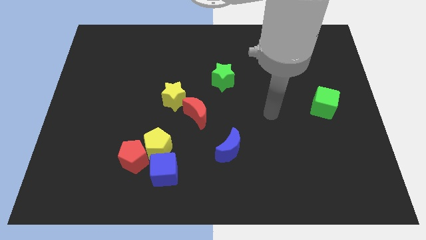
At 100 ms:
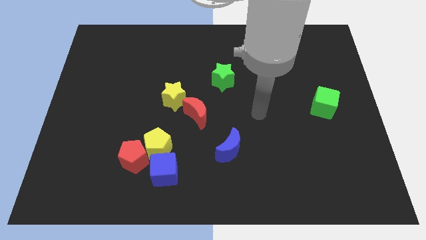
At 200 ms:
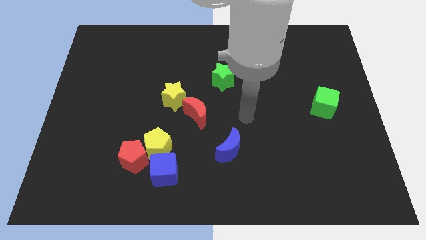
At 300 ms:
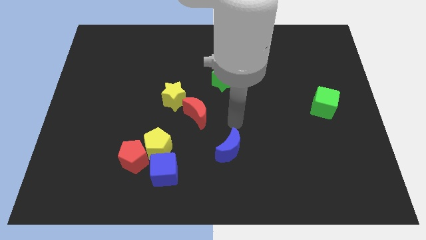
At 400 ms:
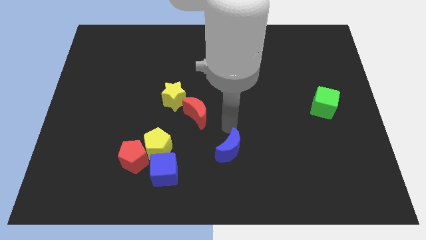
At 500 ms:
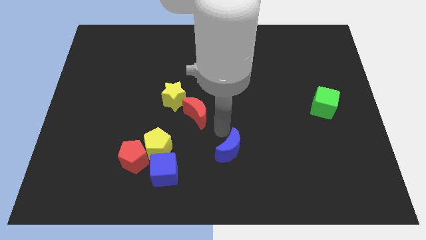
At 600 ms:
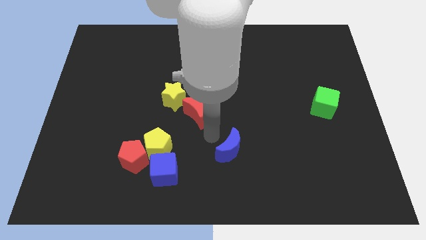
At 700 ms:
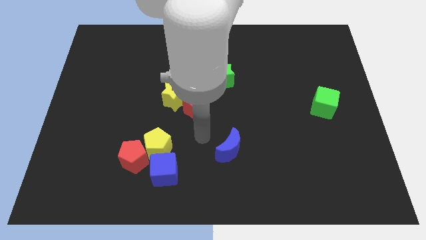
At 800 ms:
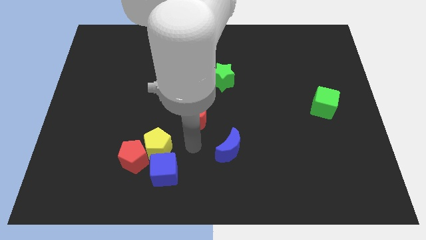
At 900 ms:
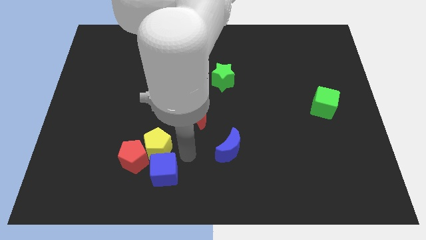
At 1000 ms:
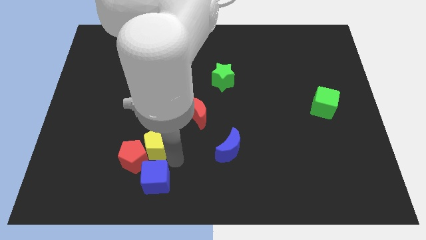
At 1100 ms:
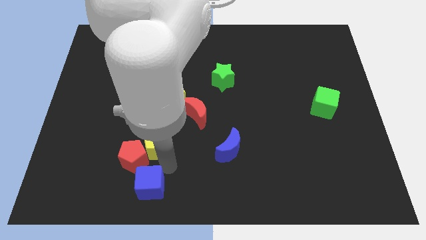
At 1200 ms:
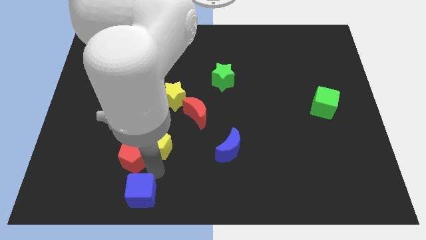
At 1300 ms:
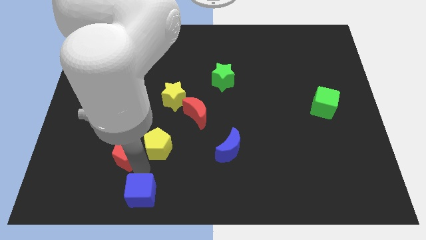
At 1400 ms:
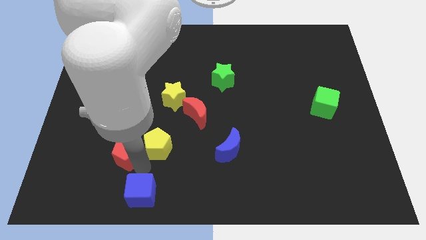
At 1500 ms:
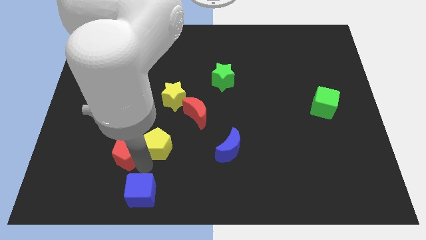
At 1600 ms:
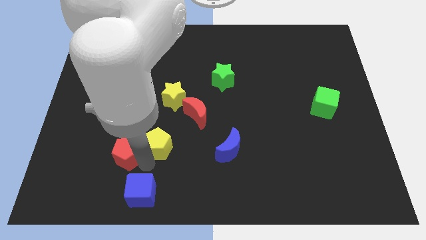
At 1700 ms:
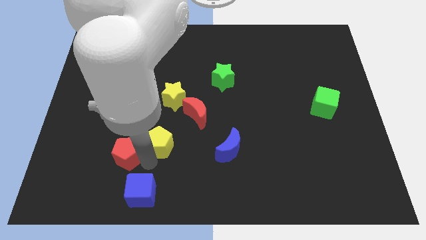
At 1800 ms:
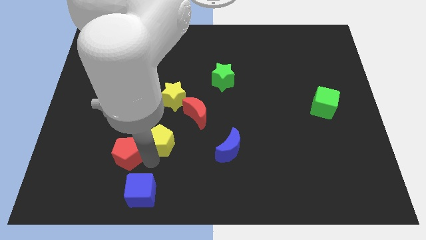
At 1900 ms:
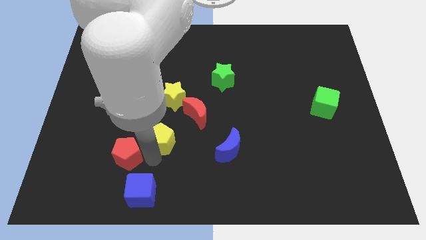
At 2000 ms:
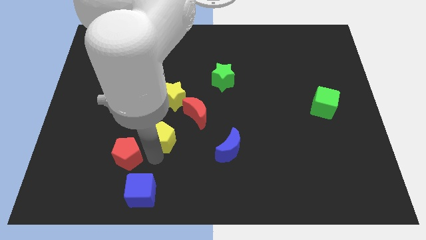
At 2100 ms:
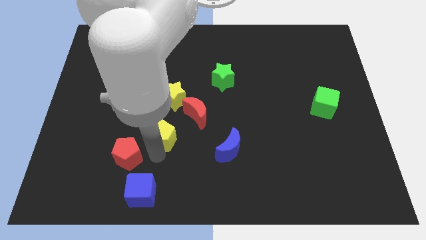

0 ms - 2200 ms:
separate the yellow pentagon from the red pentagon and blue cube

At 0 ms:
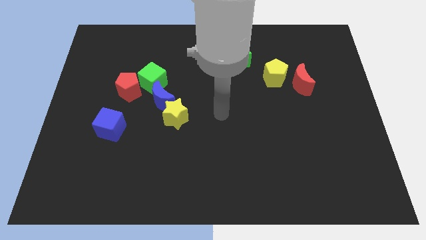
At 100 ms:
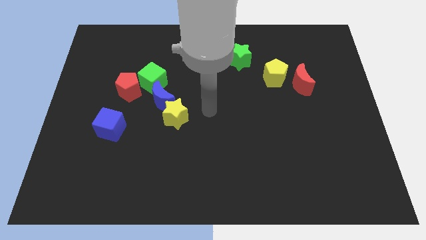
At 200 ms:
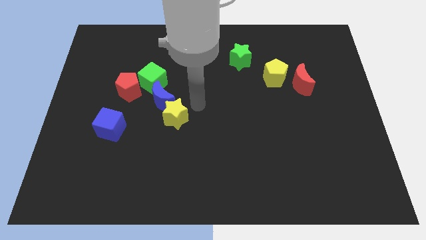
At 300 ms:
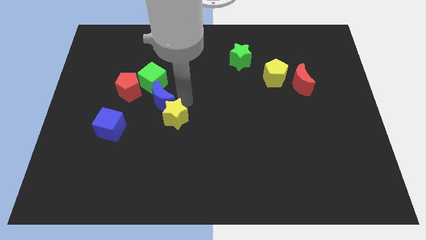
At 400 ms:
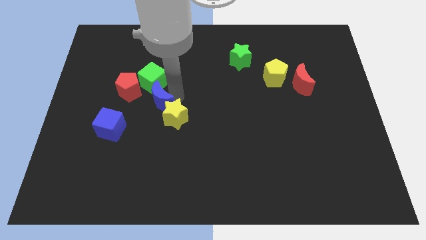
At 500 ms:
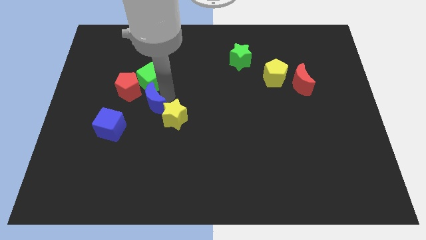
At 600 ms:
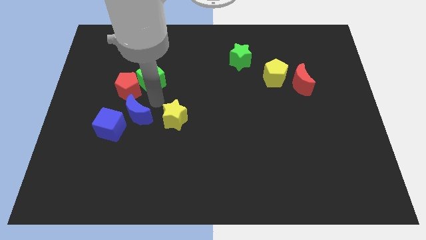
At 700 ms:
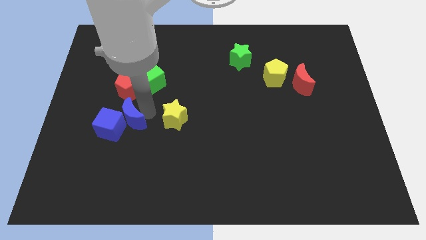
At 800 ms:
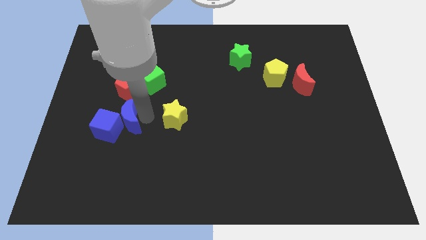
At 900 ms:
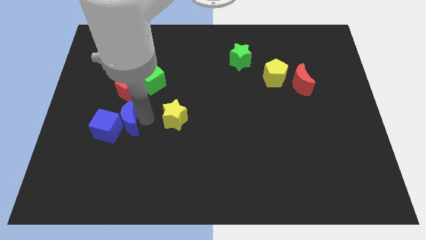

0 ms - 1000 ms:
move the yellow star away from the blue moon

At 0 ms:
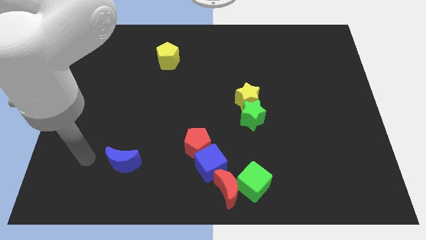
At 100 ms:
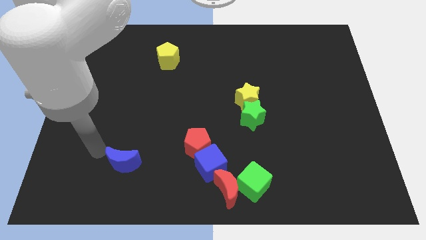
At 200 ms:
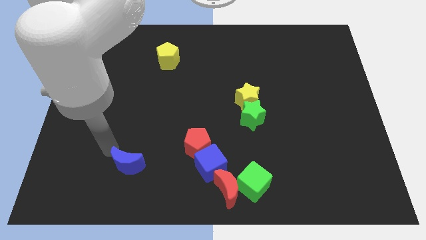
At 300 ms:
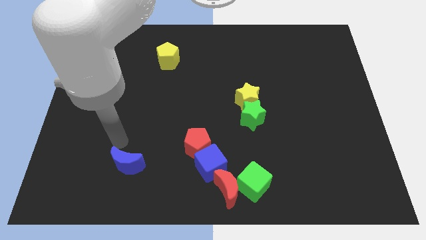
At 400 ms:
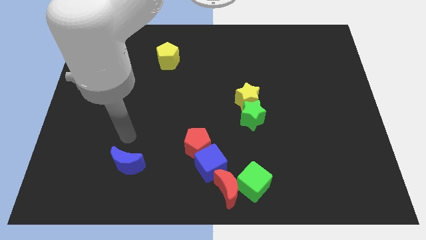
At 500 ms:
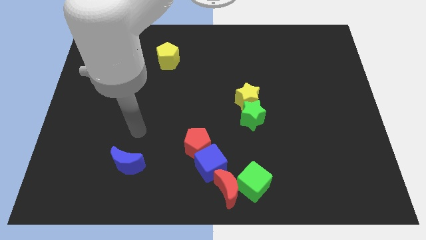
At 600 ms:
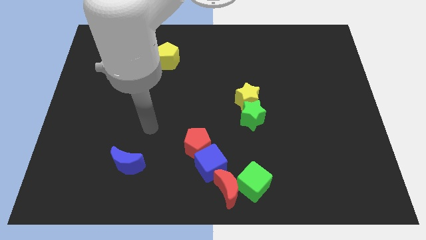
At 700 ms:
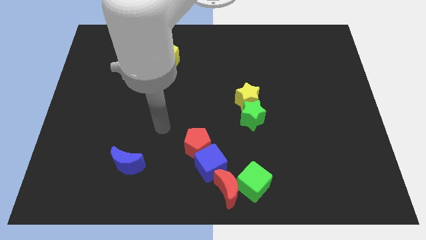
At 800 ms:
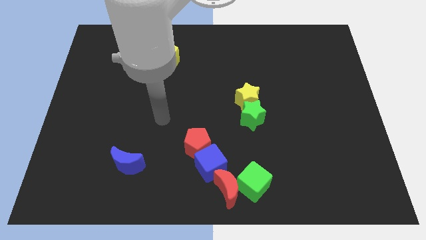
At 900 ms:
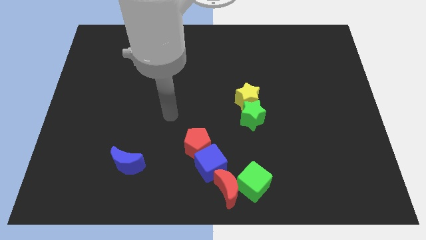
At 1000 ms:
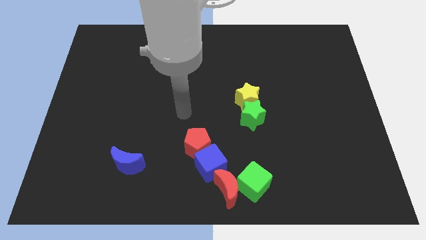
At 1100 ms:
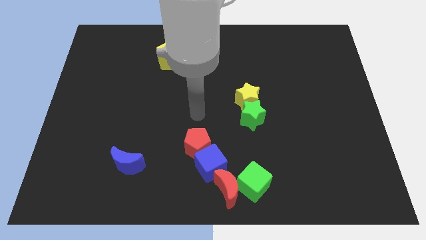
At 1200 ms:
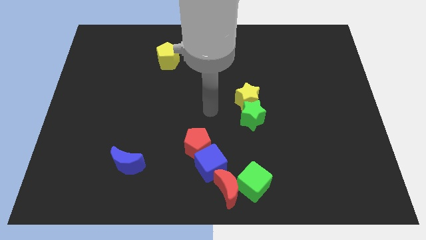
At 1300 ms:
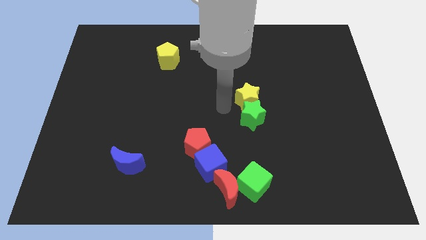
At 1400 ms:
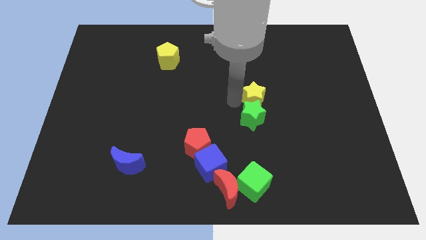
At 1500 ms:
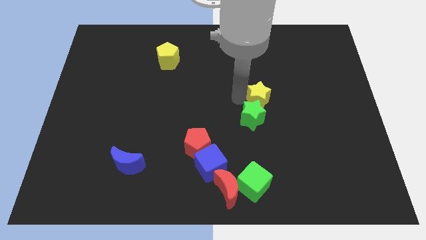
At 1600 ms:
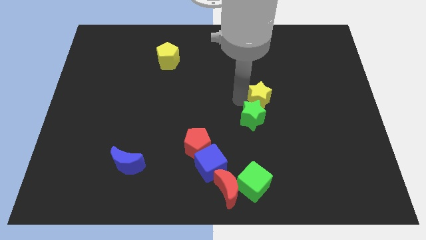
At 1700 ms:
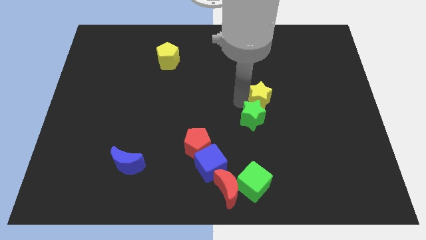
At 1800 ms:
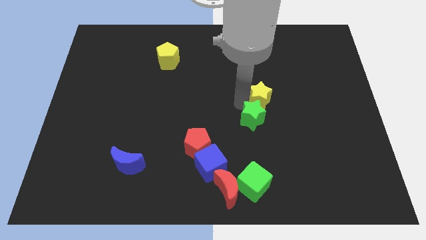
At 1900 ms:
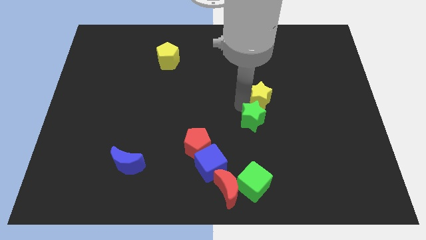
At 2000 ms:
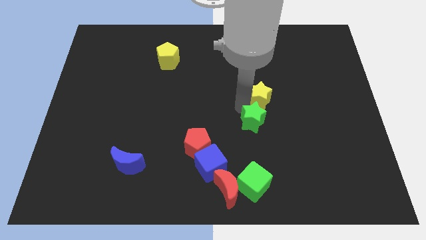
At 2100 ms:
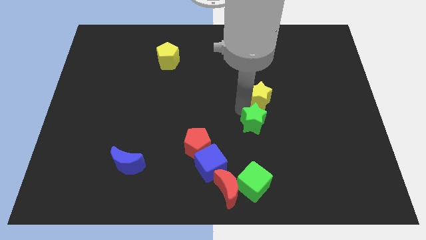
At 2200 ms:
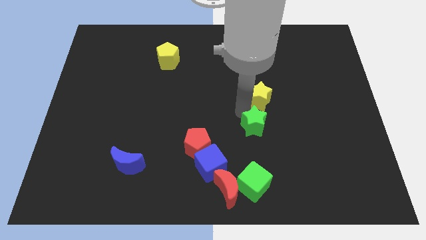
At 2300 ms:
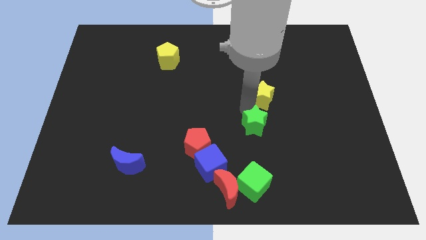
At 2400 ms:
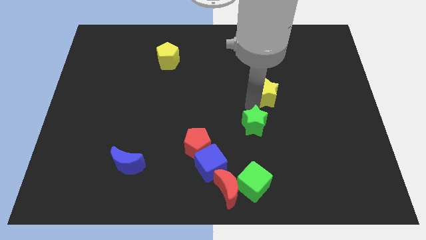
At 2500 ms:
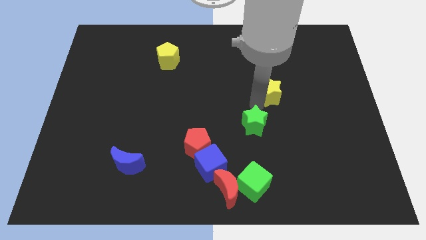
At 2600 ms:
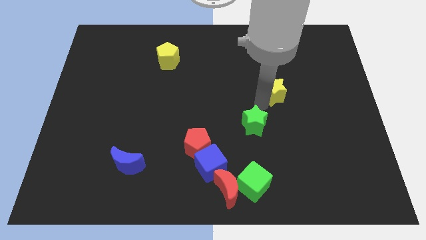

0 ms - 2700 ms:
pull the green star apart from the yellow star

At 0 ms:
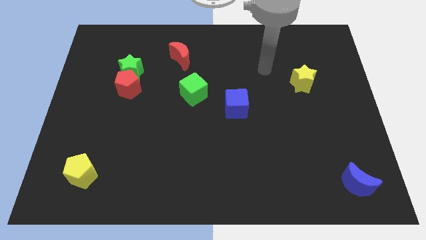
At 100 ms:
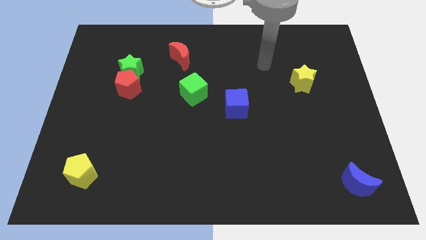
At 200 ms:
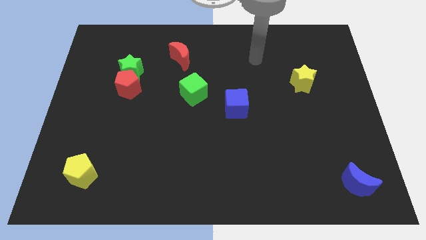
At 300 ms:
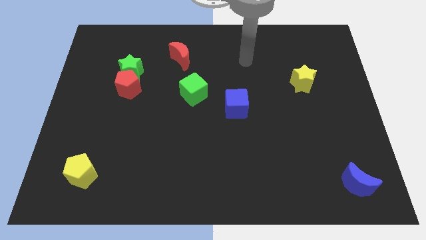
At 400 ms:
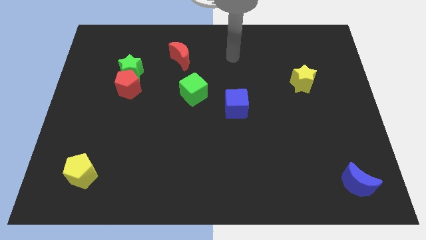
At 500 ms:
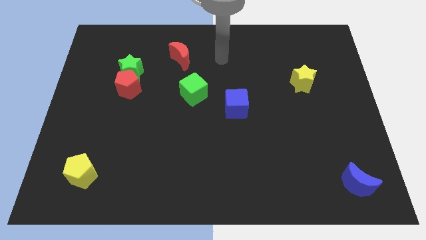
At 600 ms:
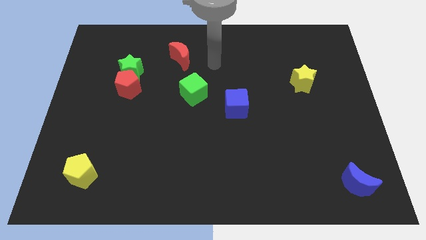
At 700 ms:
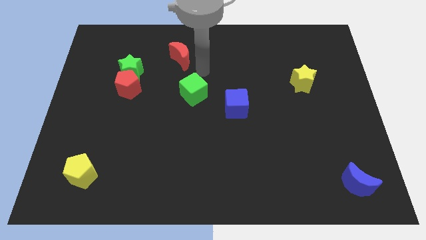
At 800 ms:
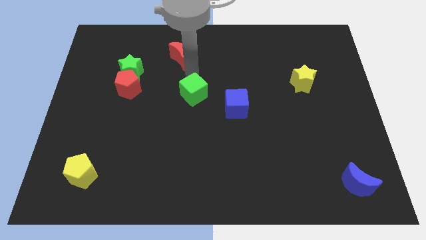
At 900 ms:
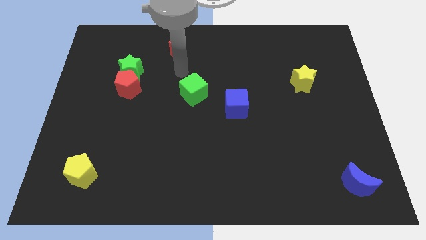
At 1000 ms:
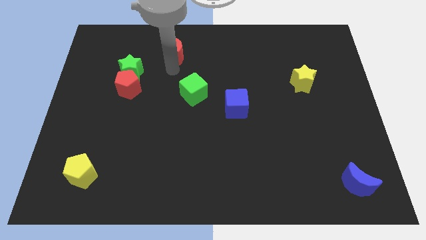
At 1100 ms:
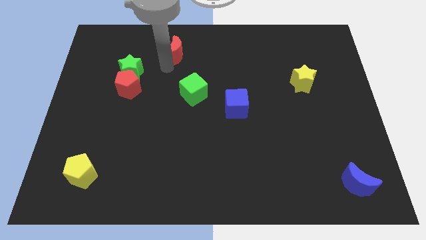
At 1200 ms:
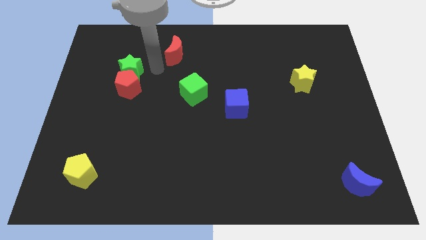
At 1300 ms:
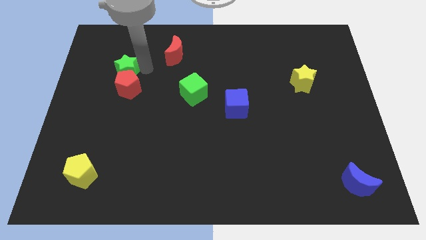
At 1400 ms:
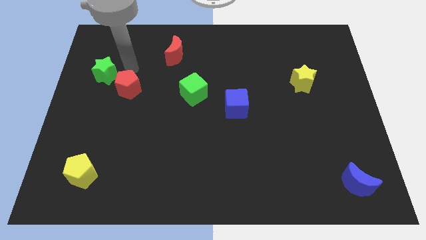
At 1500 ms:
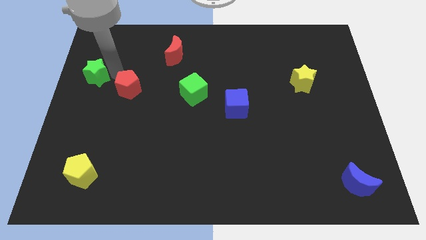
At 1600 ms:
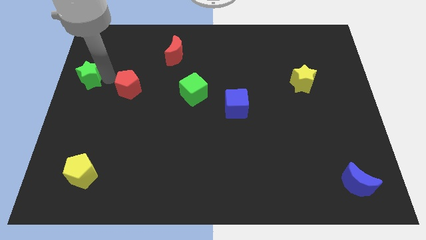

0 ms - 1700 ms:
separate the red pentagon from the green star

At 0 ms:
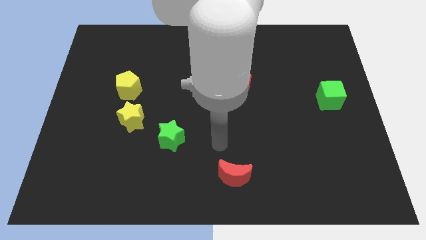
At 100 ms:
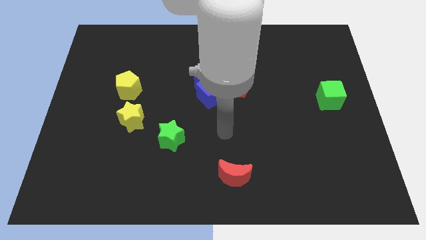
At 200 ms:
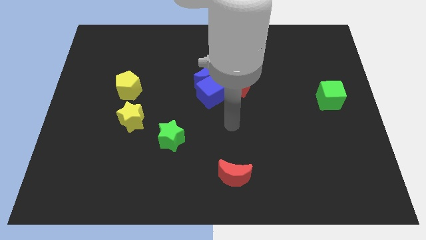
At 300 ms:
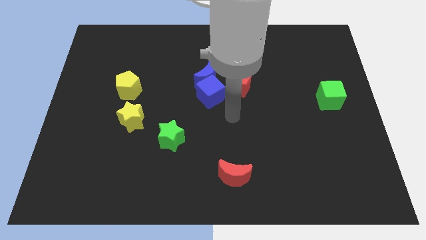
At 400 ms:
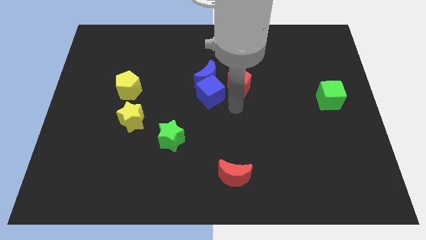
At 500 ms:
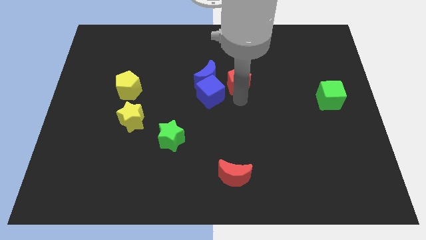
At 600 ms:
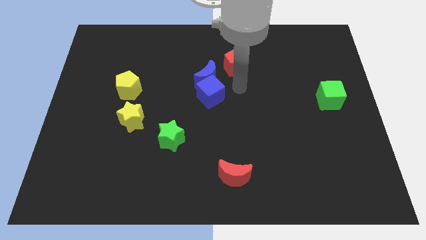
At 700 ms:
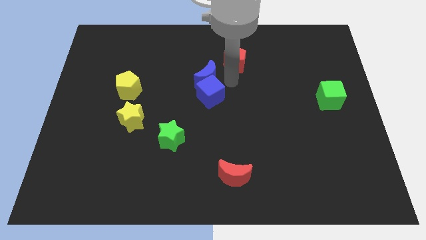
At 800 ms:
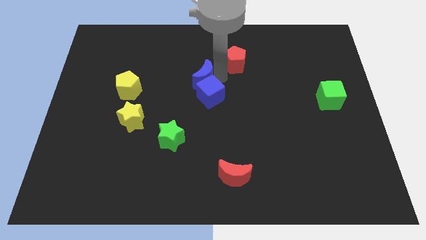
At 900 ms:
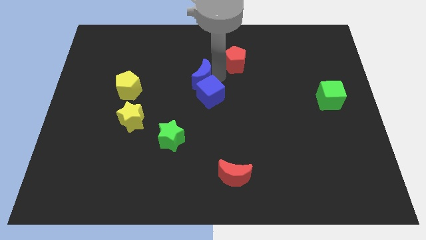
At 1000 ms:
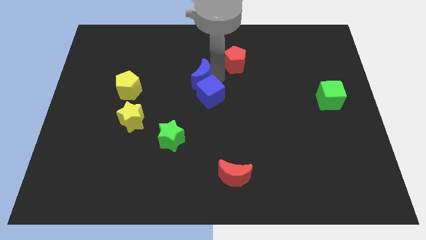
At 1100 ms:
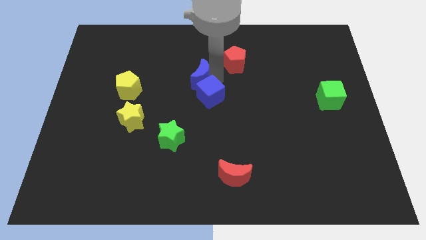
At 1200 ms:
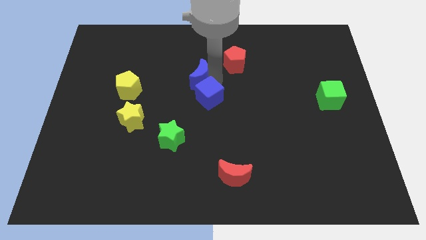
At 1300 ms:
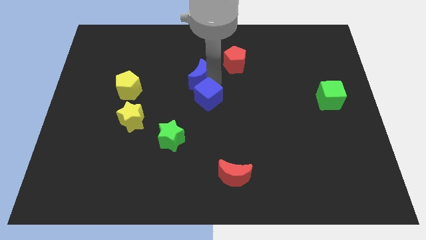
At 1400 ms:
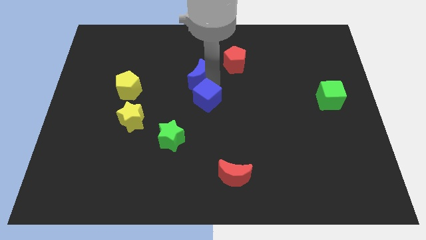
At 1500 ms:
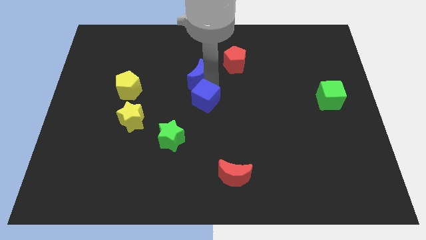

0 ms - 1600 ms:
pull the blue cube apart from the blue moon and red pentagon

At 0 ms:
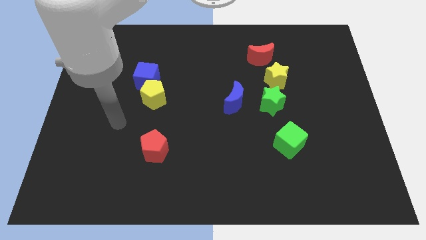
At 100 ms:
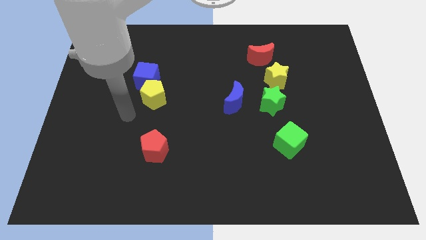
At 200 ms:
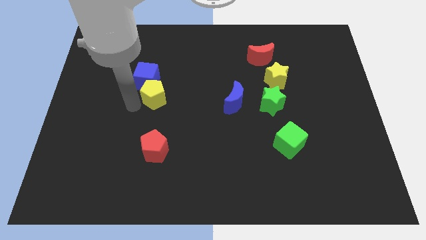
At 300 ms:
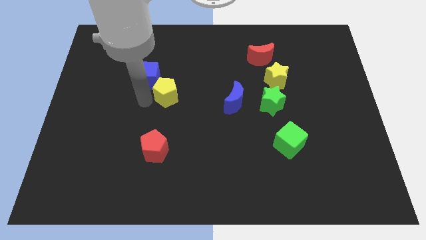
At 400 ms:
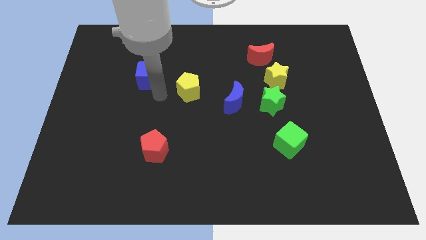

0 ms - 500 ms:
separate the blue cube from the yellow pentagon
